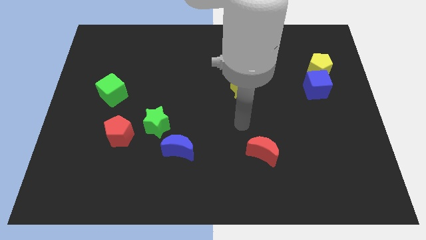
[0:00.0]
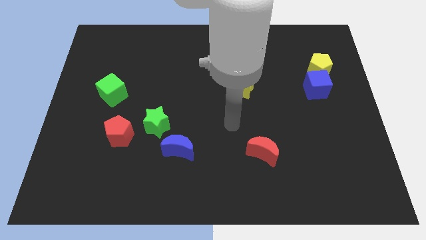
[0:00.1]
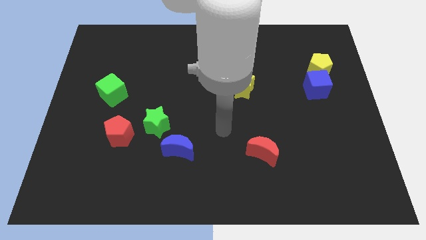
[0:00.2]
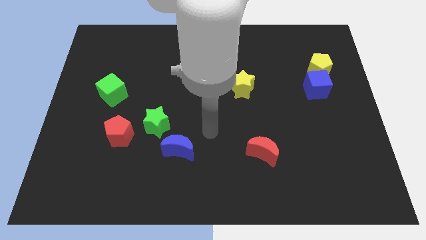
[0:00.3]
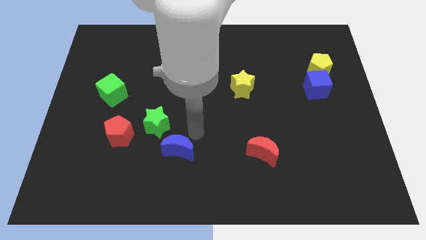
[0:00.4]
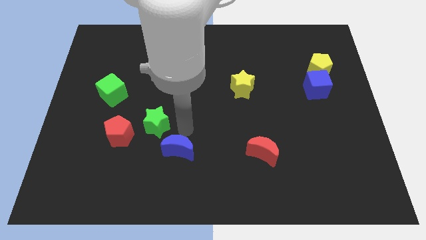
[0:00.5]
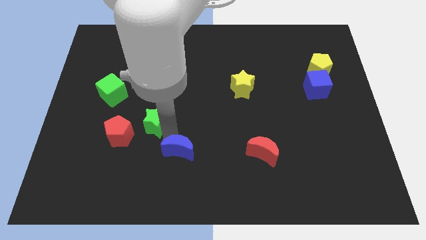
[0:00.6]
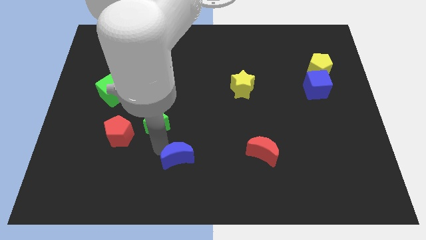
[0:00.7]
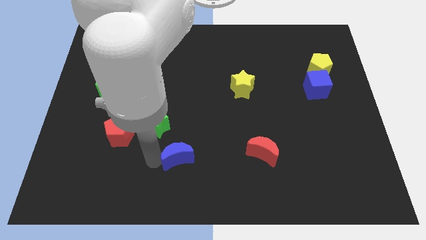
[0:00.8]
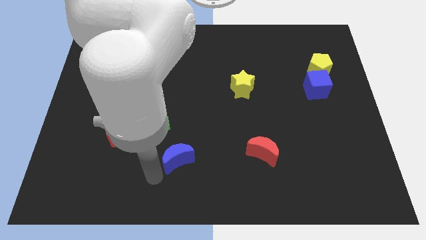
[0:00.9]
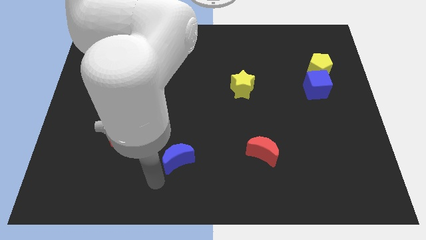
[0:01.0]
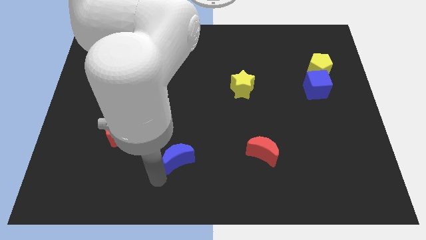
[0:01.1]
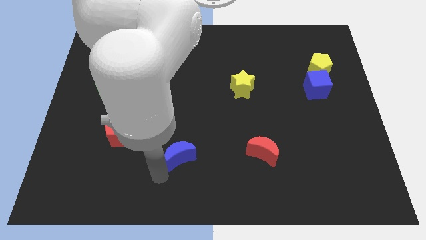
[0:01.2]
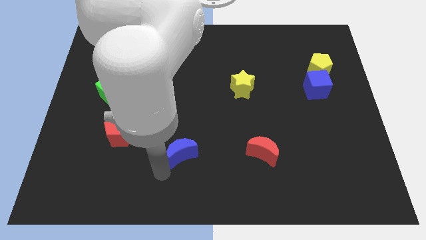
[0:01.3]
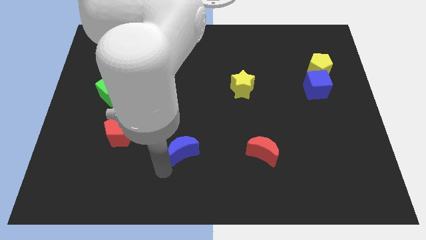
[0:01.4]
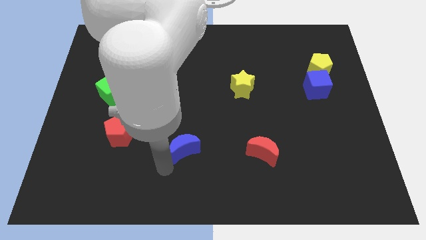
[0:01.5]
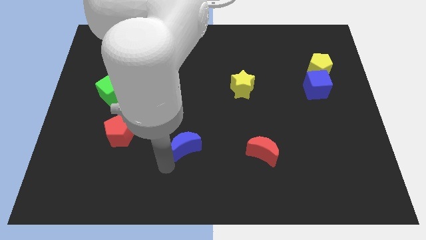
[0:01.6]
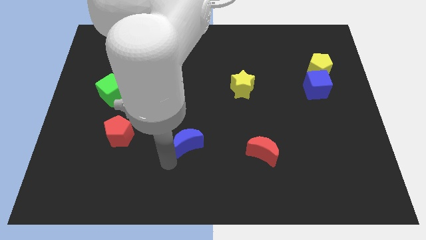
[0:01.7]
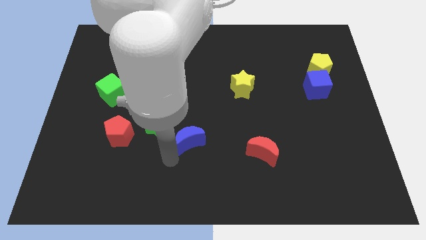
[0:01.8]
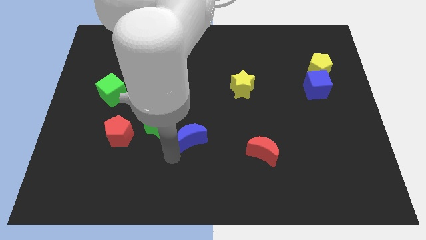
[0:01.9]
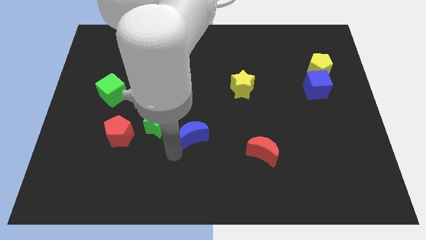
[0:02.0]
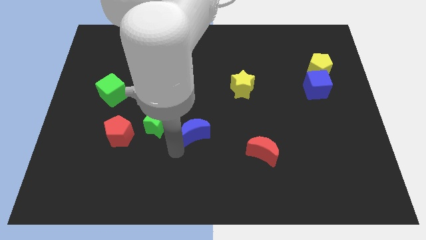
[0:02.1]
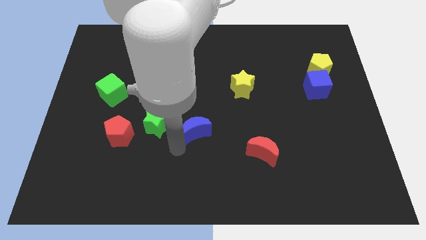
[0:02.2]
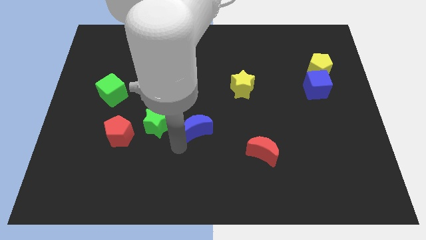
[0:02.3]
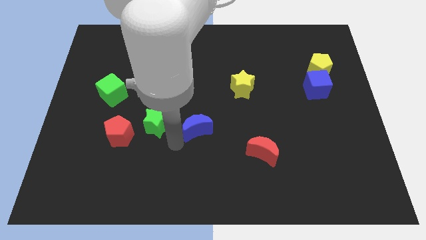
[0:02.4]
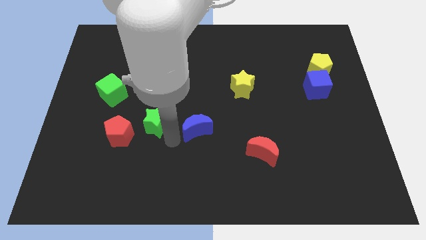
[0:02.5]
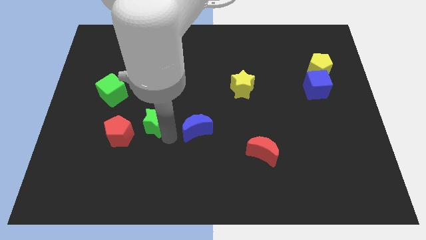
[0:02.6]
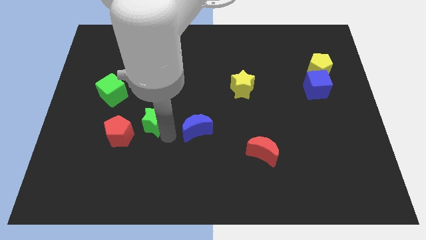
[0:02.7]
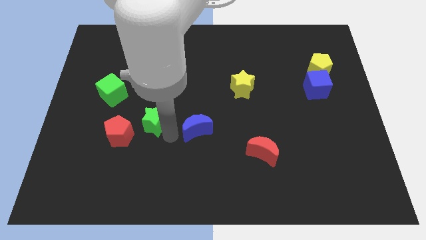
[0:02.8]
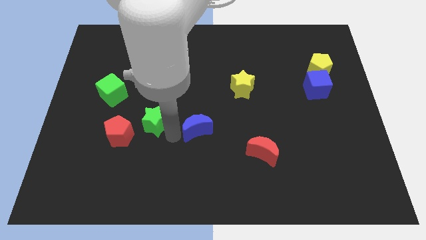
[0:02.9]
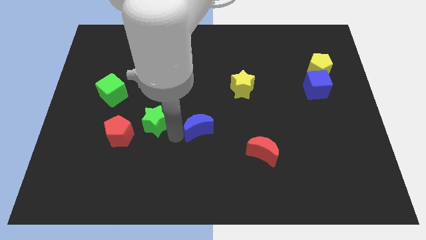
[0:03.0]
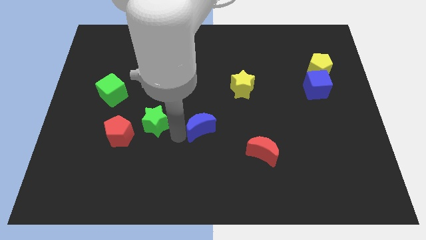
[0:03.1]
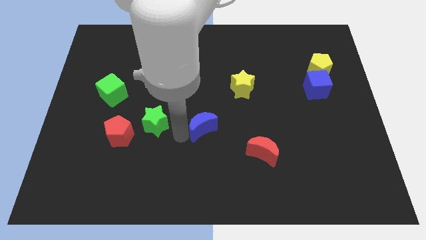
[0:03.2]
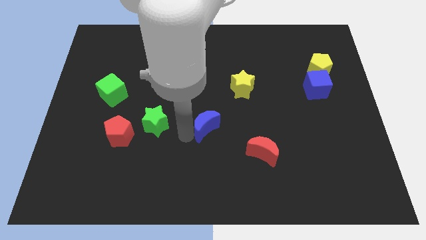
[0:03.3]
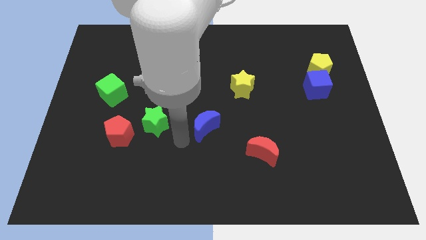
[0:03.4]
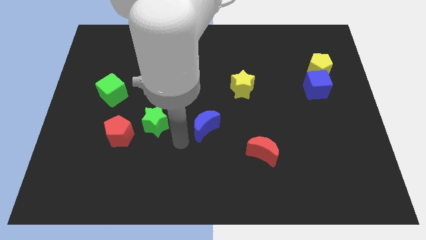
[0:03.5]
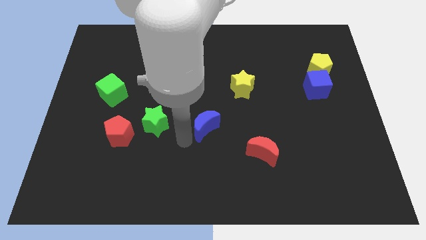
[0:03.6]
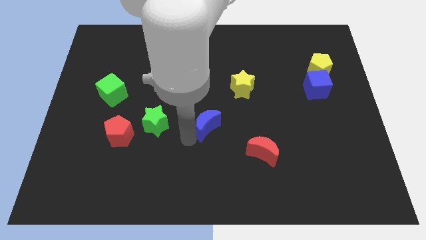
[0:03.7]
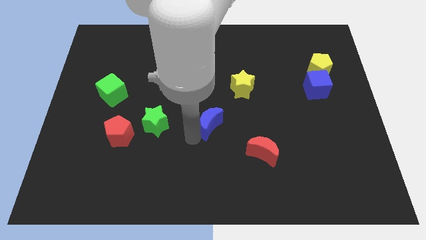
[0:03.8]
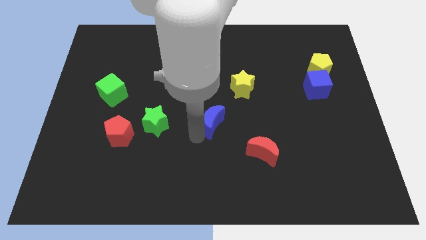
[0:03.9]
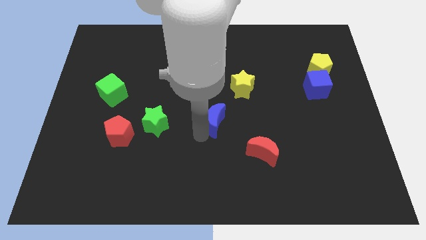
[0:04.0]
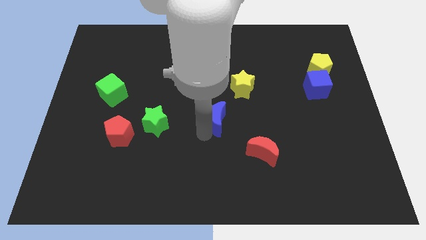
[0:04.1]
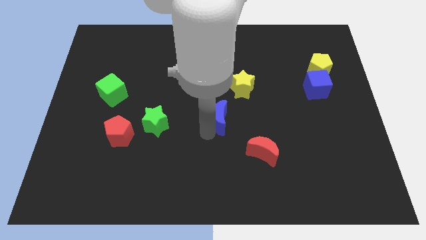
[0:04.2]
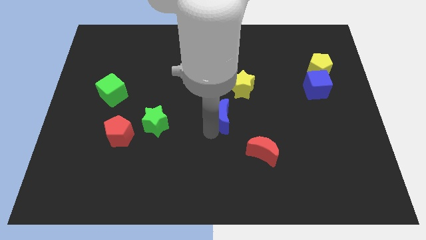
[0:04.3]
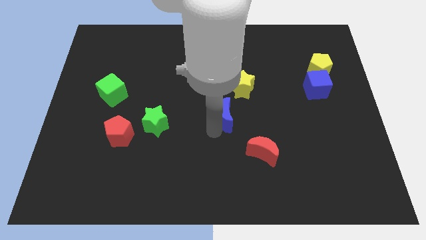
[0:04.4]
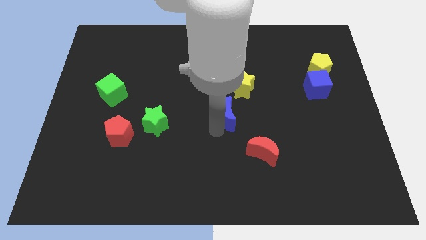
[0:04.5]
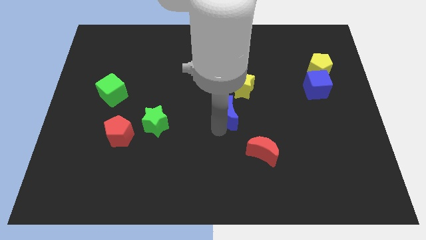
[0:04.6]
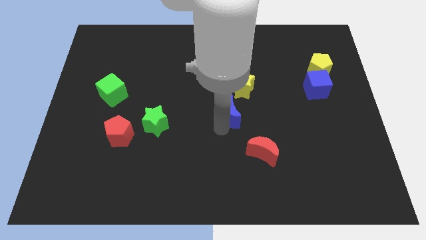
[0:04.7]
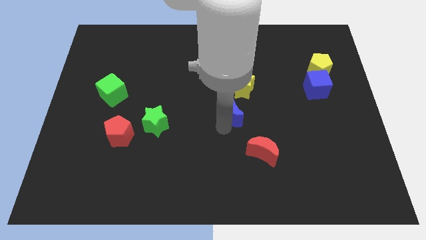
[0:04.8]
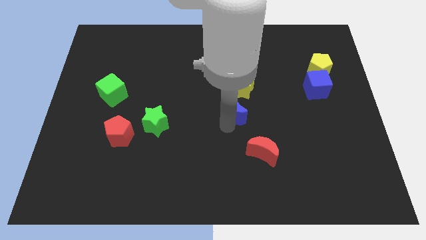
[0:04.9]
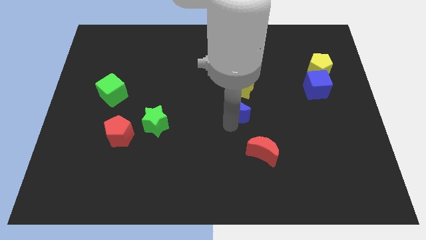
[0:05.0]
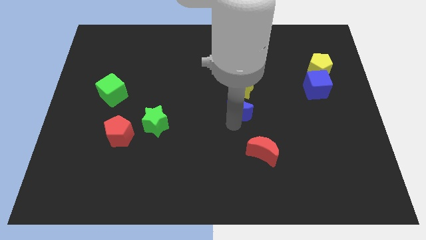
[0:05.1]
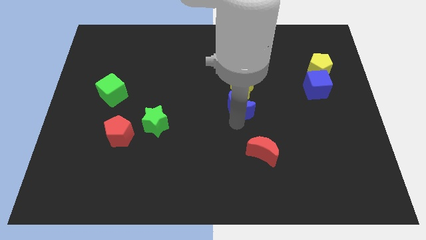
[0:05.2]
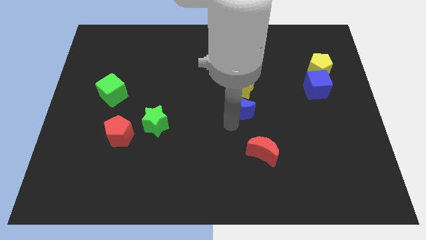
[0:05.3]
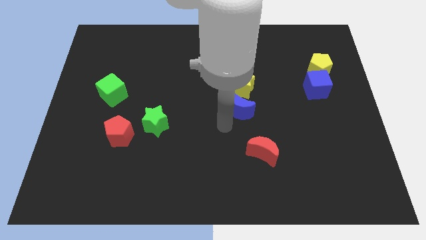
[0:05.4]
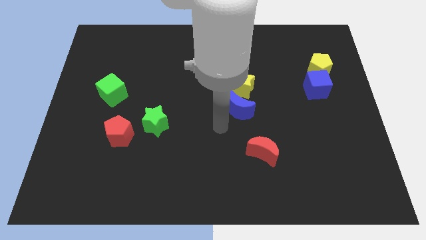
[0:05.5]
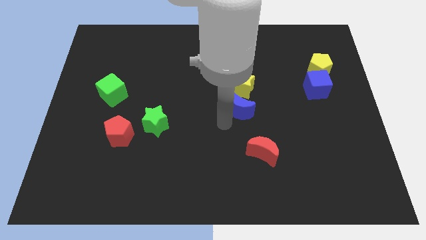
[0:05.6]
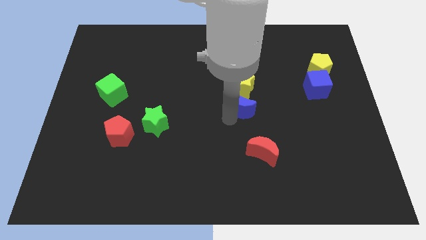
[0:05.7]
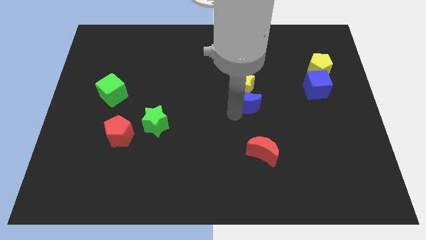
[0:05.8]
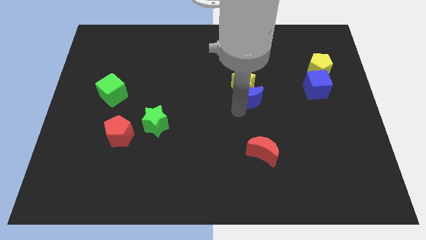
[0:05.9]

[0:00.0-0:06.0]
slide the blue moon upwards and to the right

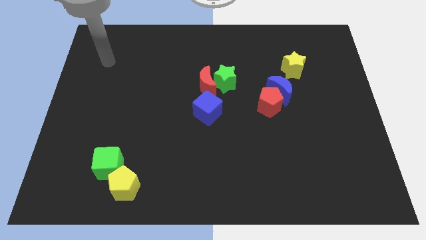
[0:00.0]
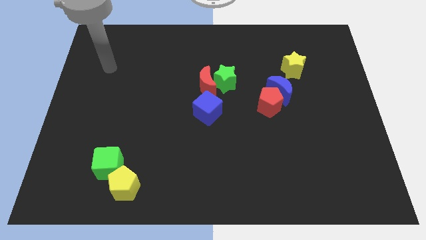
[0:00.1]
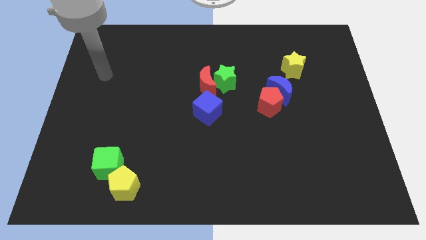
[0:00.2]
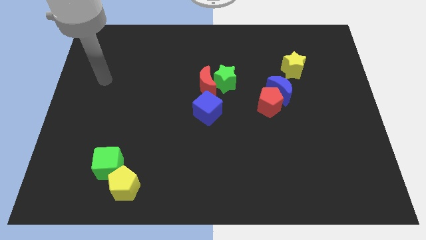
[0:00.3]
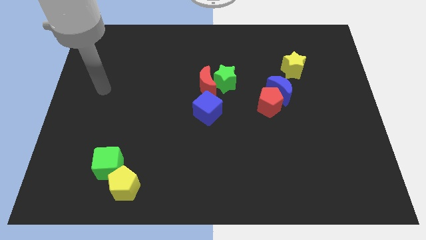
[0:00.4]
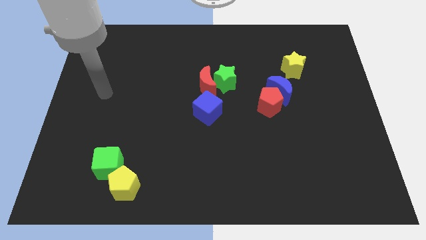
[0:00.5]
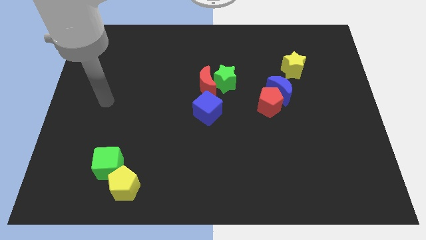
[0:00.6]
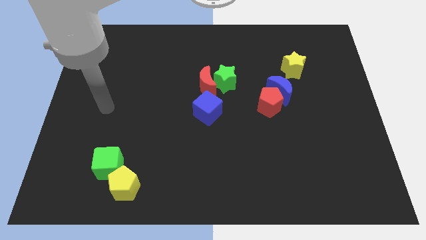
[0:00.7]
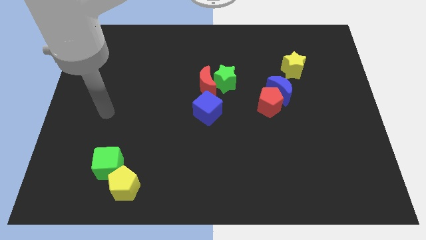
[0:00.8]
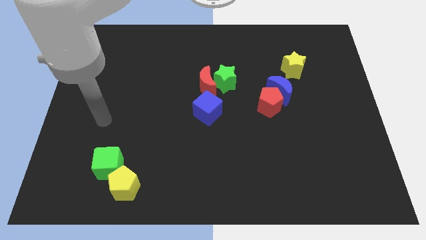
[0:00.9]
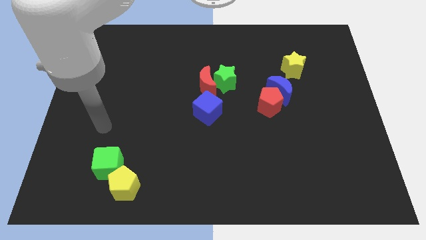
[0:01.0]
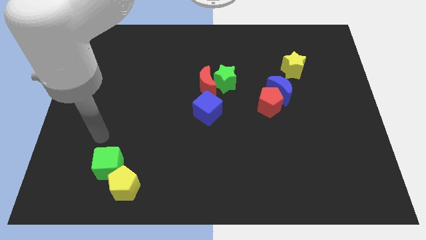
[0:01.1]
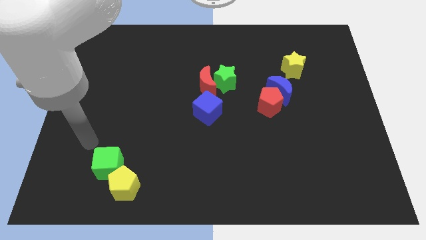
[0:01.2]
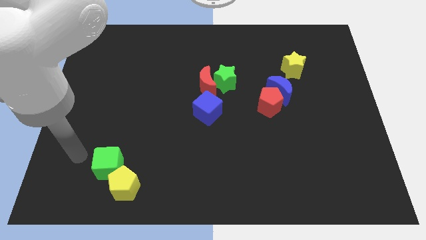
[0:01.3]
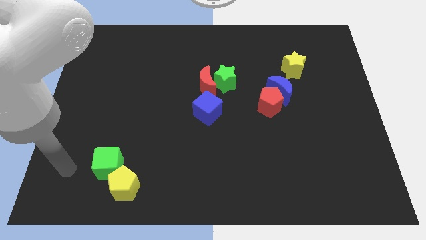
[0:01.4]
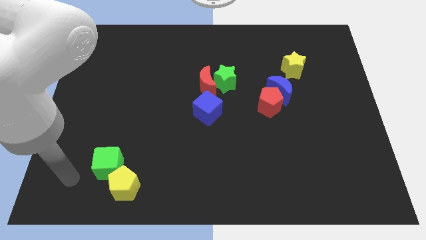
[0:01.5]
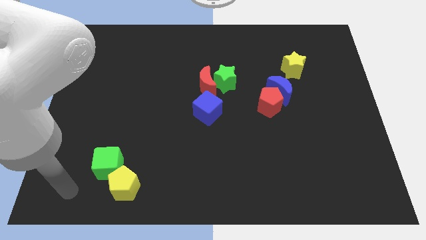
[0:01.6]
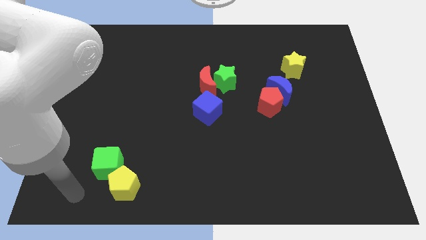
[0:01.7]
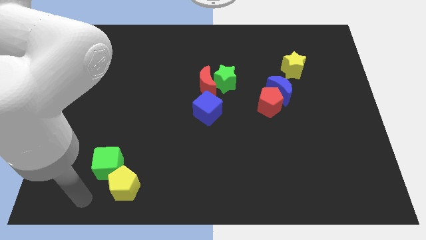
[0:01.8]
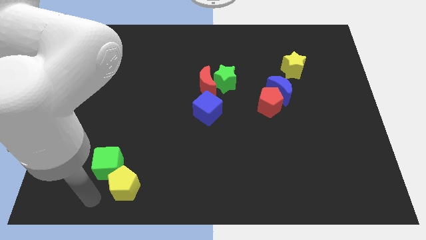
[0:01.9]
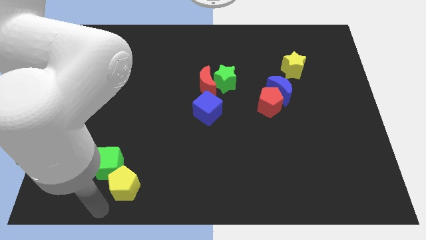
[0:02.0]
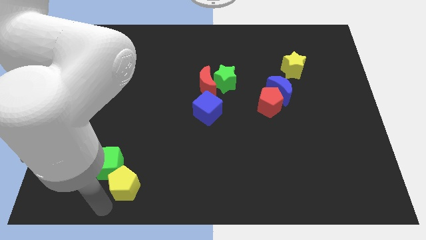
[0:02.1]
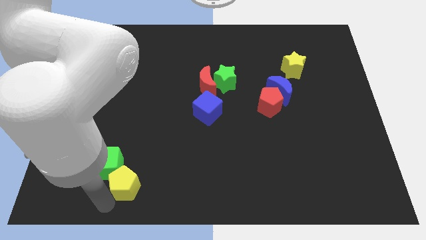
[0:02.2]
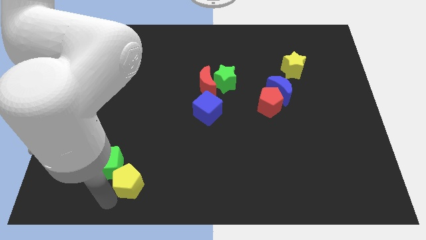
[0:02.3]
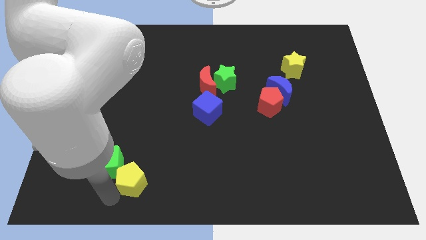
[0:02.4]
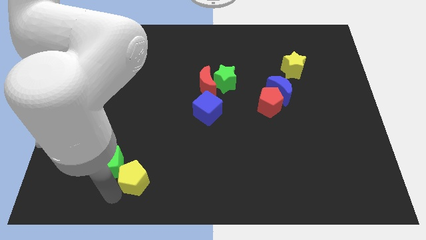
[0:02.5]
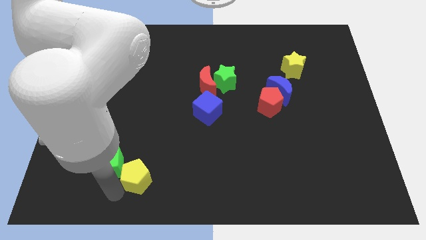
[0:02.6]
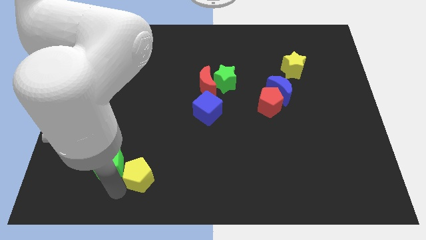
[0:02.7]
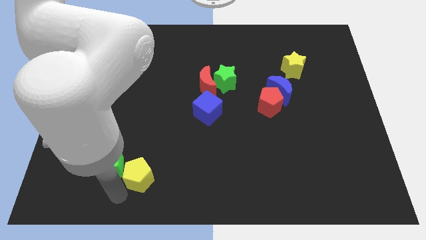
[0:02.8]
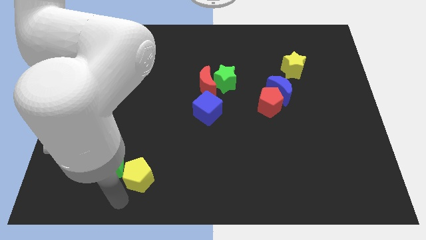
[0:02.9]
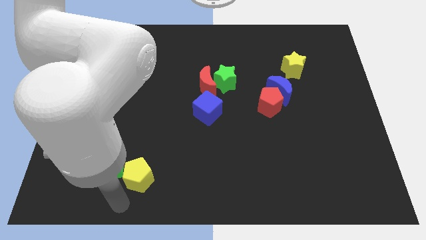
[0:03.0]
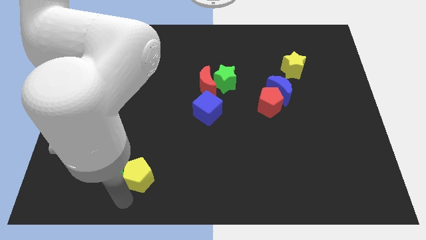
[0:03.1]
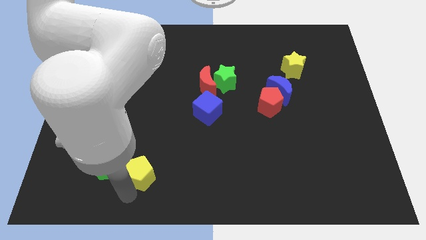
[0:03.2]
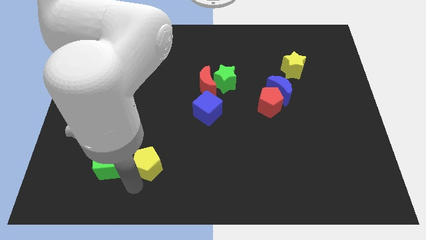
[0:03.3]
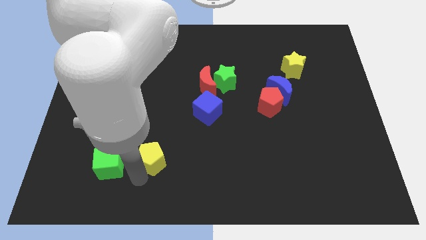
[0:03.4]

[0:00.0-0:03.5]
slide the yellow pentagon a little up and right
